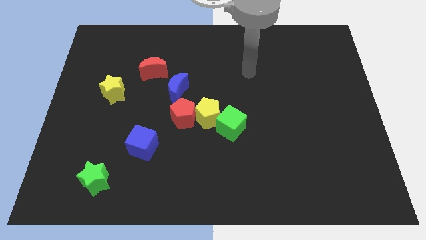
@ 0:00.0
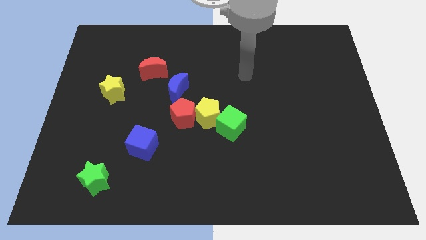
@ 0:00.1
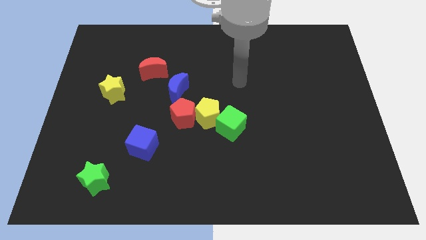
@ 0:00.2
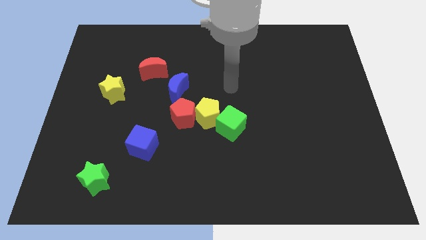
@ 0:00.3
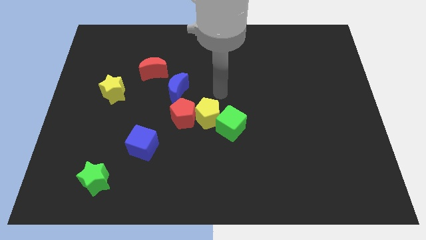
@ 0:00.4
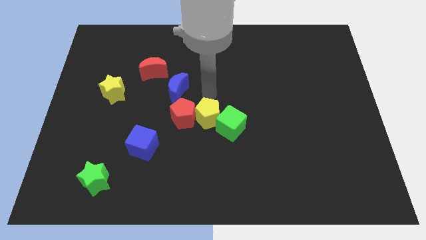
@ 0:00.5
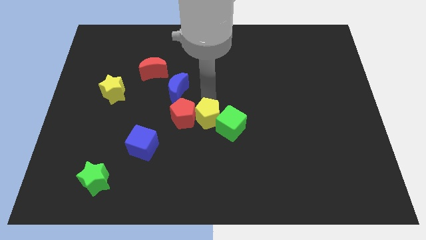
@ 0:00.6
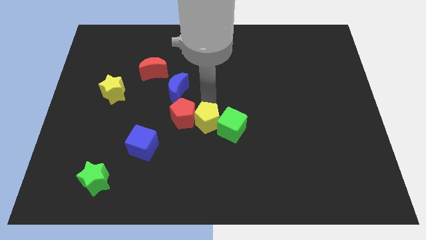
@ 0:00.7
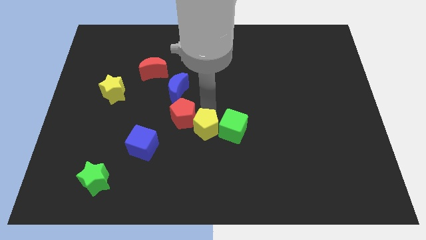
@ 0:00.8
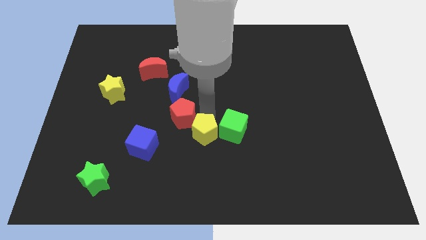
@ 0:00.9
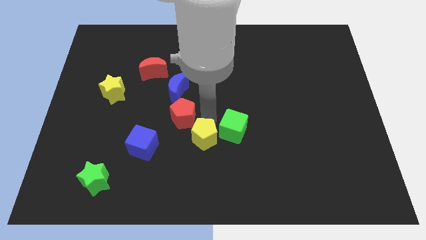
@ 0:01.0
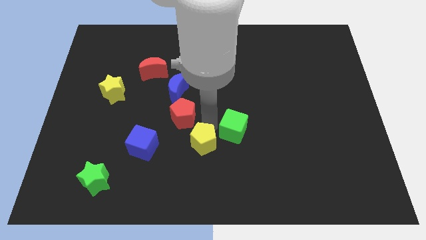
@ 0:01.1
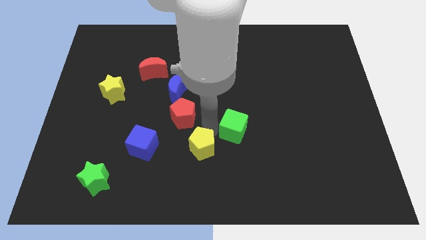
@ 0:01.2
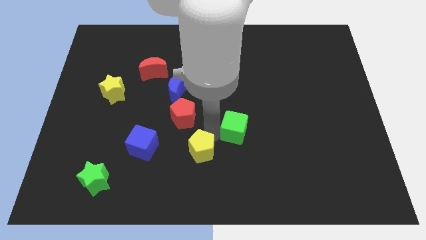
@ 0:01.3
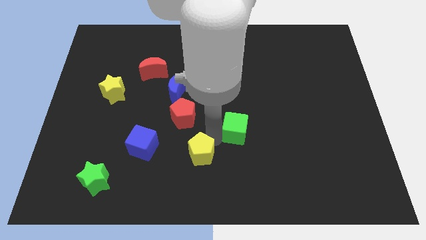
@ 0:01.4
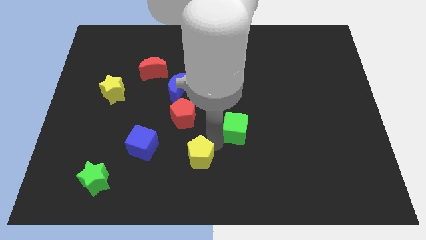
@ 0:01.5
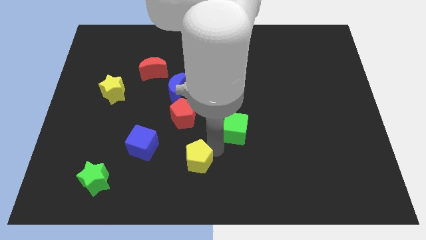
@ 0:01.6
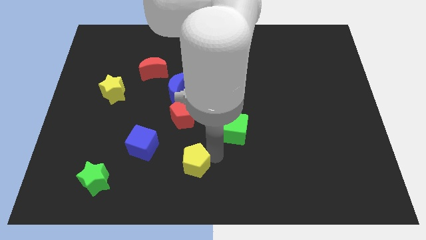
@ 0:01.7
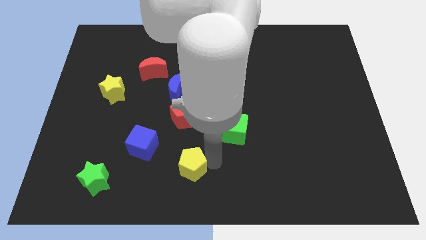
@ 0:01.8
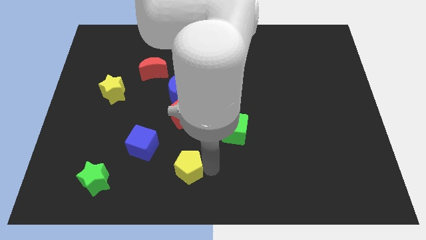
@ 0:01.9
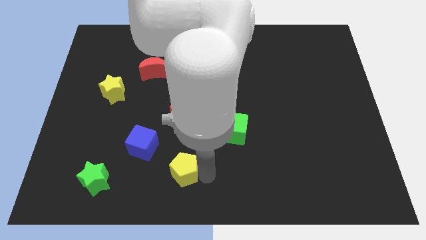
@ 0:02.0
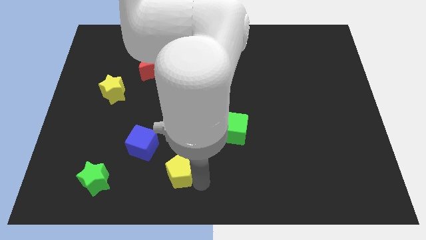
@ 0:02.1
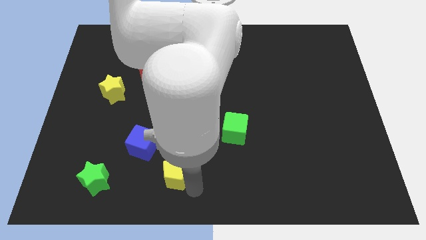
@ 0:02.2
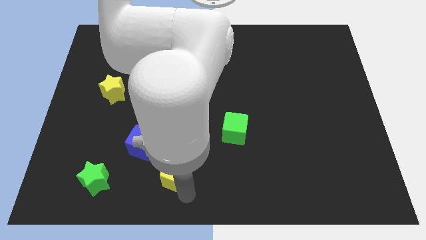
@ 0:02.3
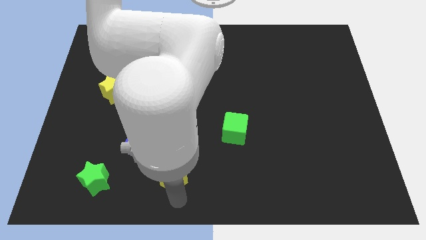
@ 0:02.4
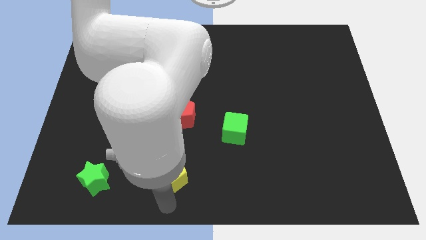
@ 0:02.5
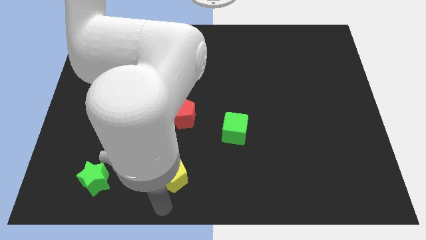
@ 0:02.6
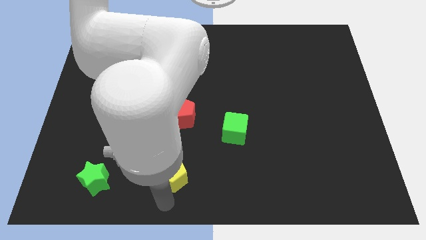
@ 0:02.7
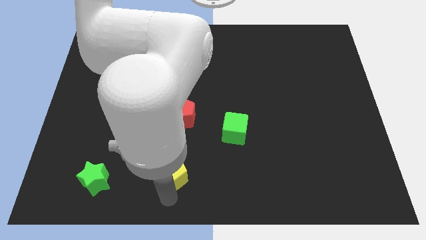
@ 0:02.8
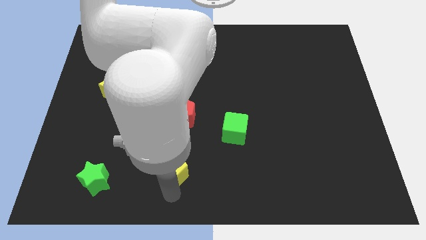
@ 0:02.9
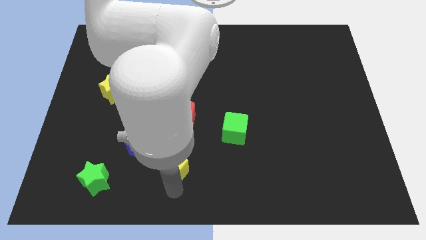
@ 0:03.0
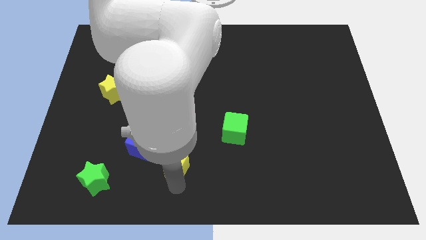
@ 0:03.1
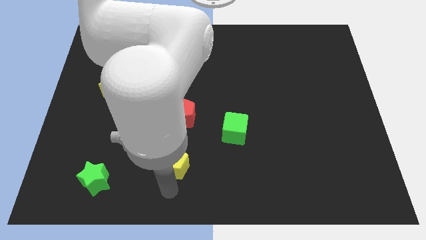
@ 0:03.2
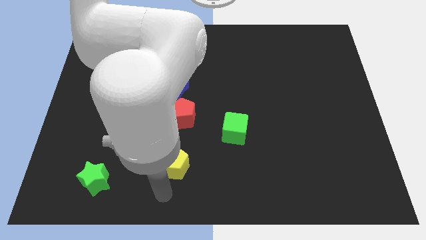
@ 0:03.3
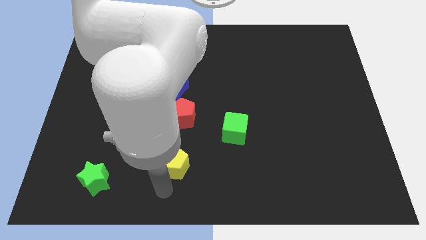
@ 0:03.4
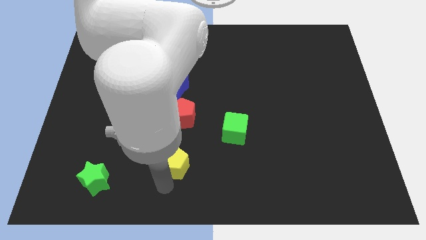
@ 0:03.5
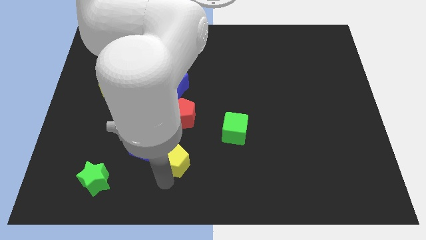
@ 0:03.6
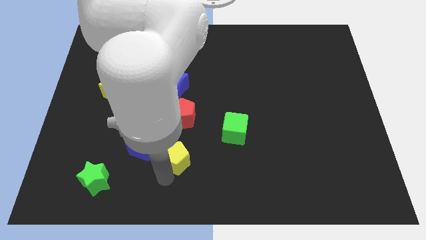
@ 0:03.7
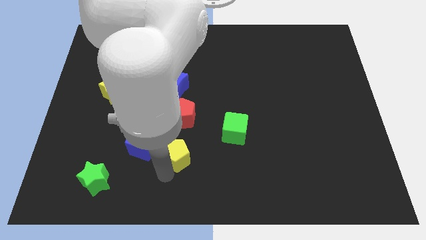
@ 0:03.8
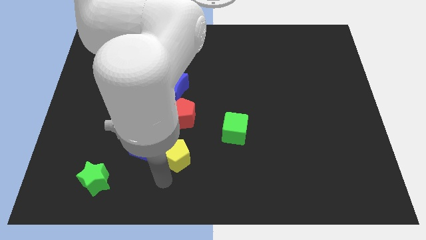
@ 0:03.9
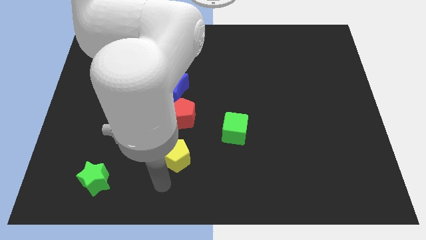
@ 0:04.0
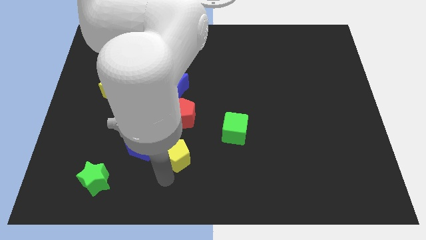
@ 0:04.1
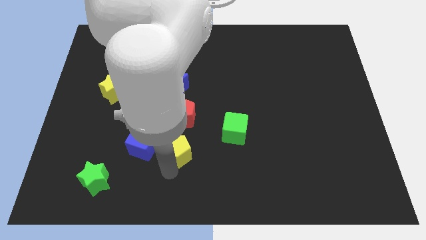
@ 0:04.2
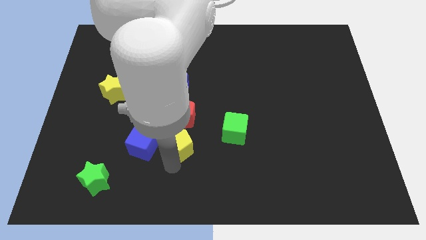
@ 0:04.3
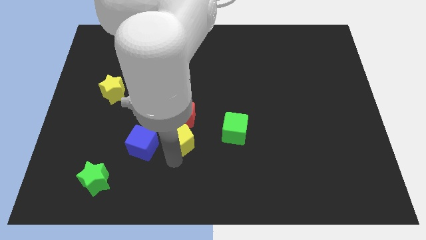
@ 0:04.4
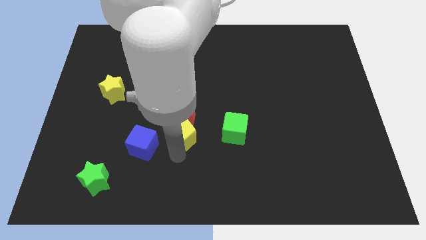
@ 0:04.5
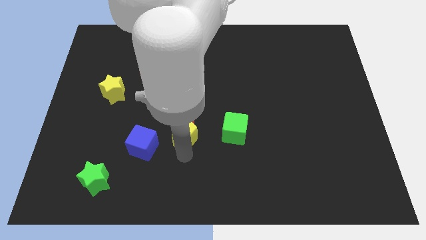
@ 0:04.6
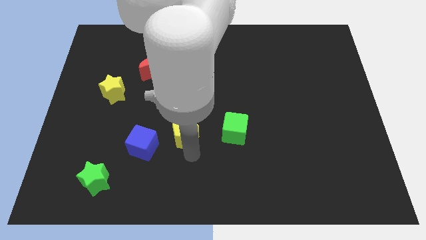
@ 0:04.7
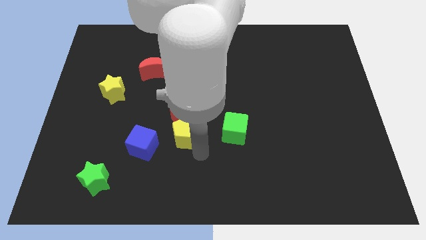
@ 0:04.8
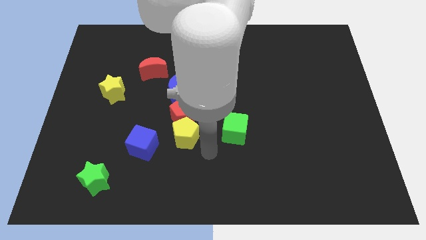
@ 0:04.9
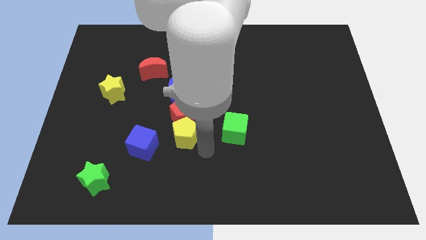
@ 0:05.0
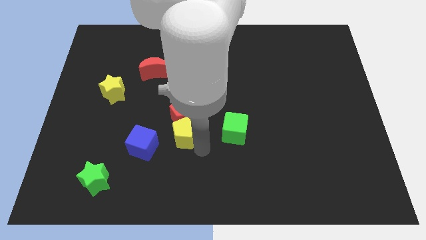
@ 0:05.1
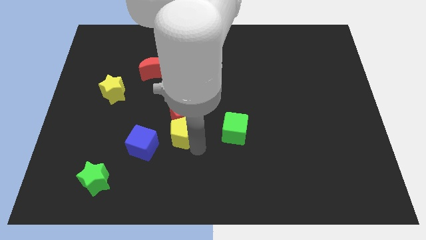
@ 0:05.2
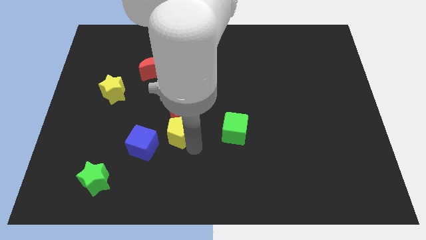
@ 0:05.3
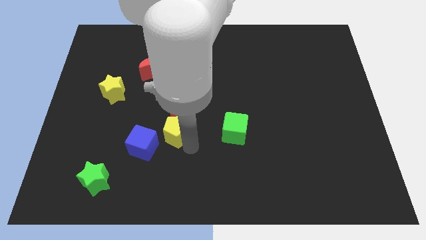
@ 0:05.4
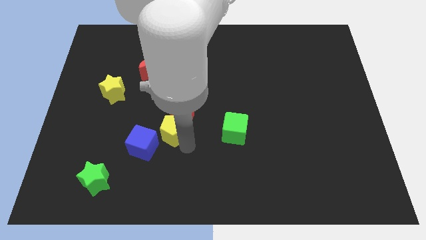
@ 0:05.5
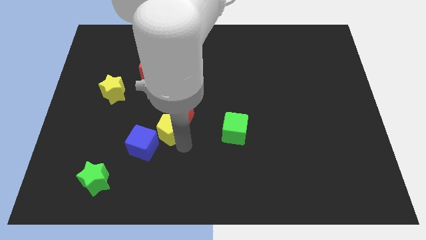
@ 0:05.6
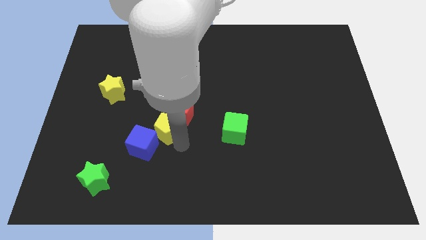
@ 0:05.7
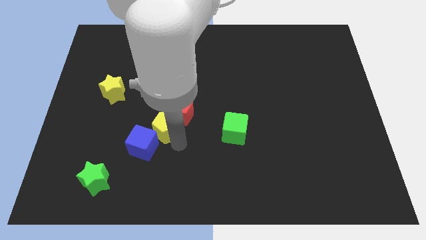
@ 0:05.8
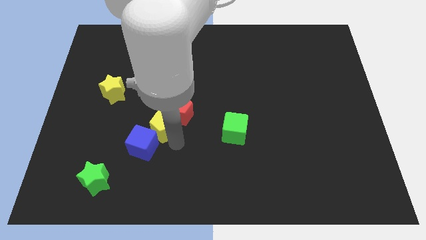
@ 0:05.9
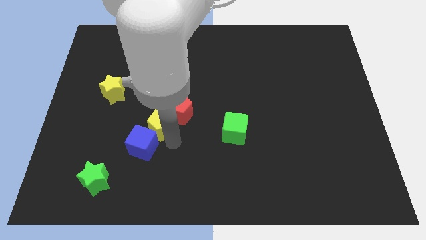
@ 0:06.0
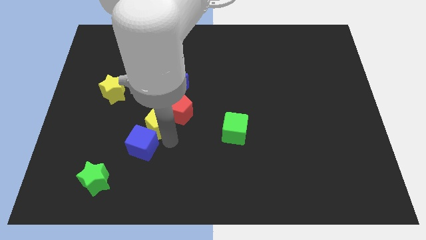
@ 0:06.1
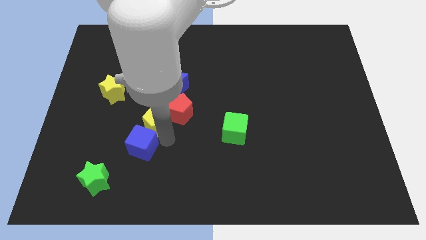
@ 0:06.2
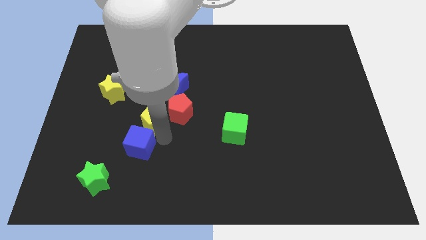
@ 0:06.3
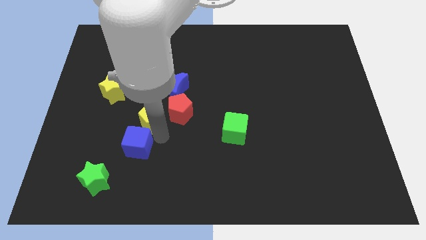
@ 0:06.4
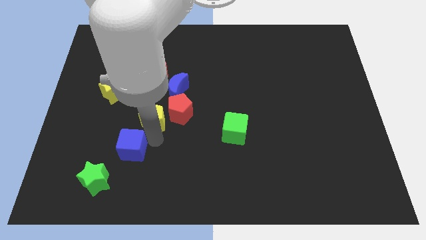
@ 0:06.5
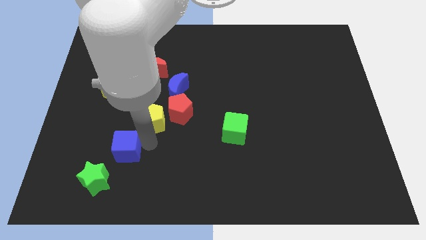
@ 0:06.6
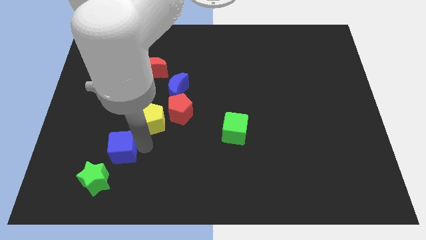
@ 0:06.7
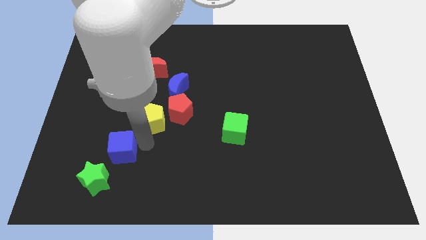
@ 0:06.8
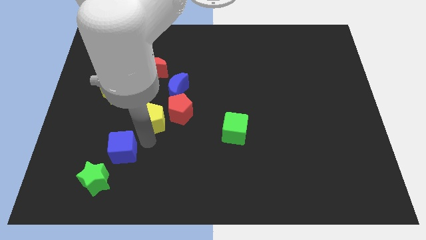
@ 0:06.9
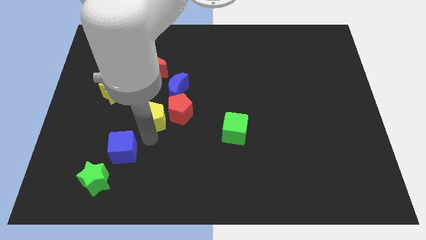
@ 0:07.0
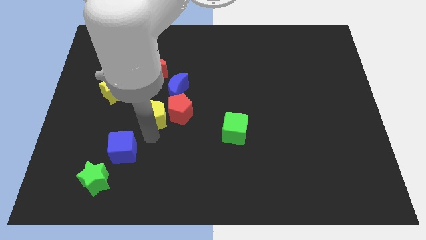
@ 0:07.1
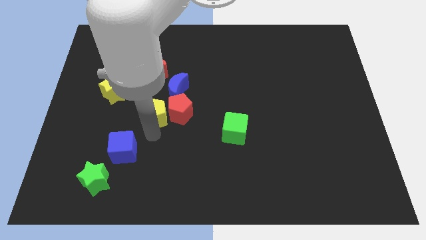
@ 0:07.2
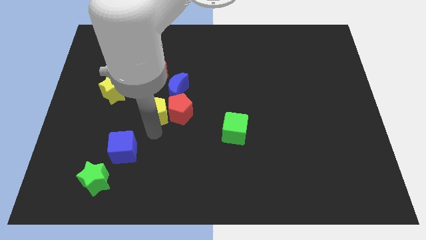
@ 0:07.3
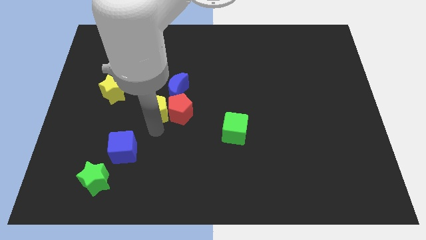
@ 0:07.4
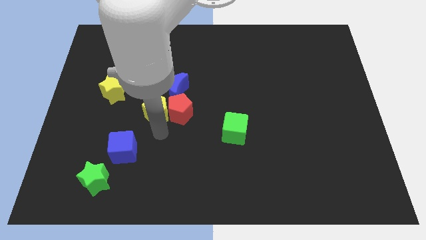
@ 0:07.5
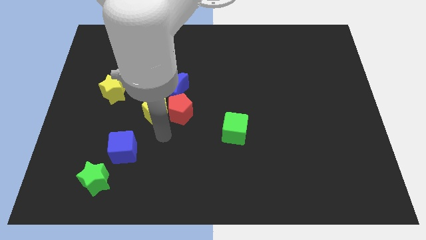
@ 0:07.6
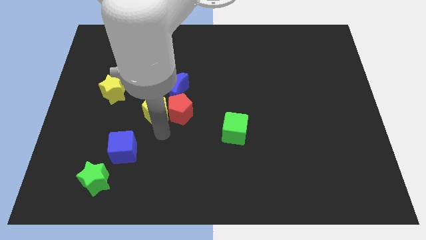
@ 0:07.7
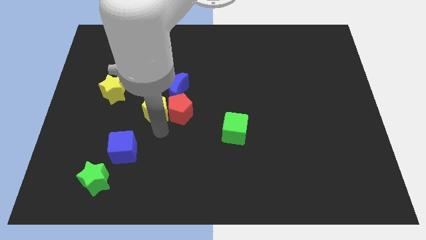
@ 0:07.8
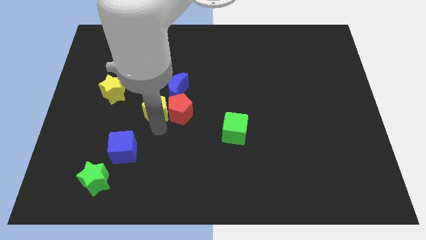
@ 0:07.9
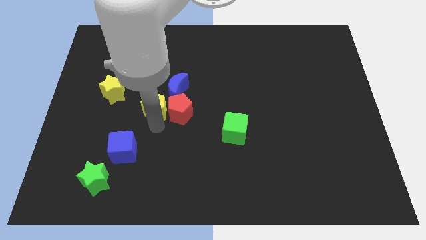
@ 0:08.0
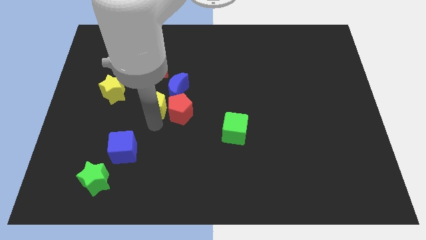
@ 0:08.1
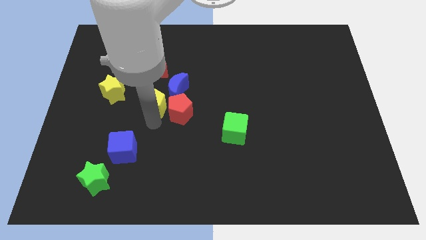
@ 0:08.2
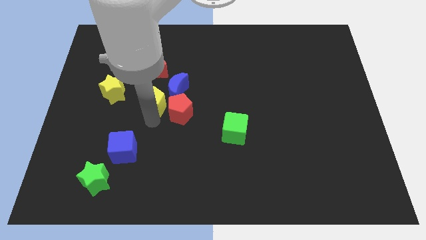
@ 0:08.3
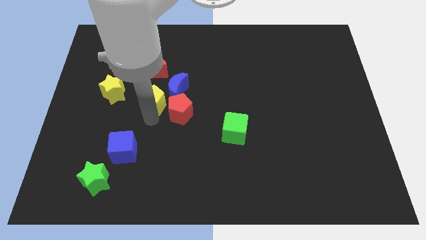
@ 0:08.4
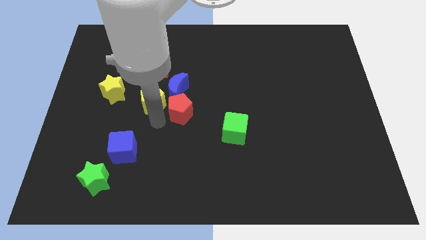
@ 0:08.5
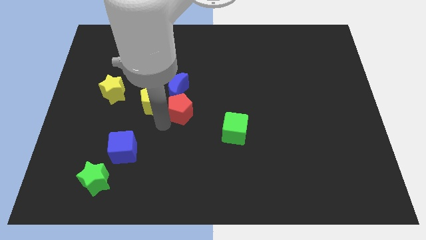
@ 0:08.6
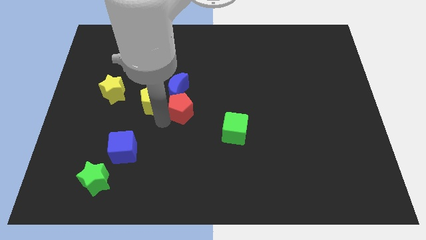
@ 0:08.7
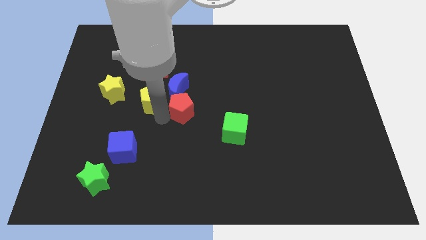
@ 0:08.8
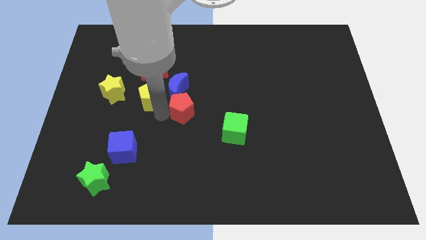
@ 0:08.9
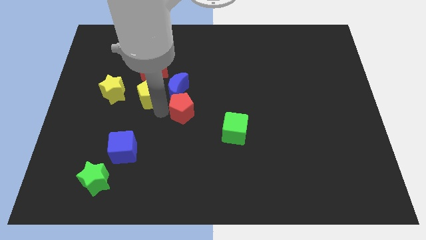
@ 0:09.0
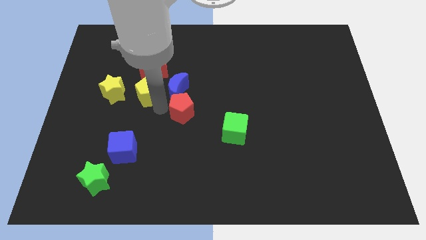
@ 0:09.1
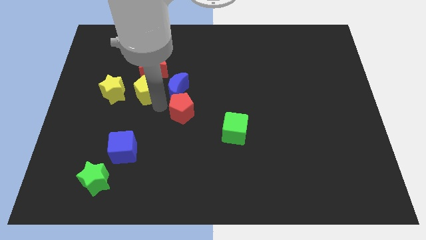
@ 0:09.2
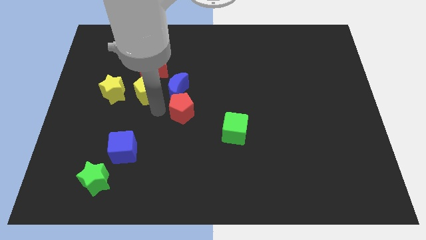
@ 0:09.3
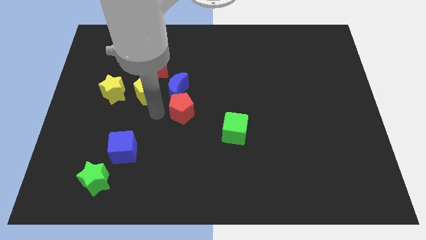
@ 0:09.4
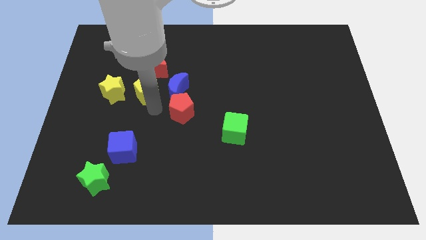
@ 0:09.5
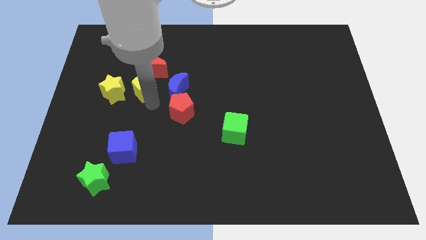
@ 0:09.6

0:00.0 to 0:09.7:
slide the yellow pentagon to the top right side of the yellow star
